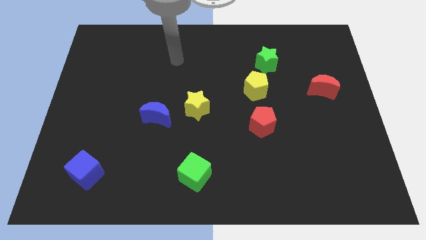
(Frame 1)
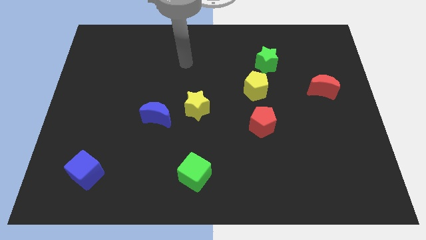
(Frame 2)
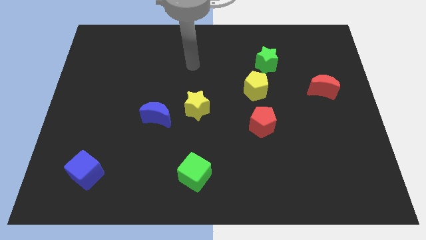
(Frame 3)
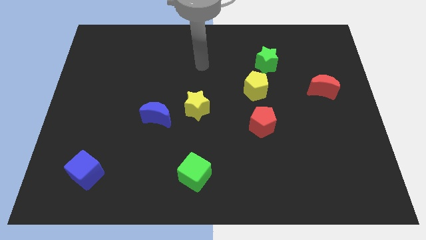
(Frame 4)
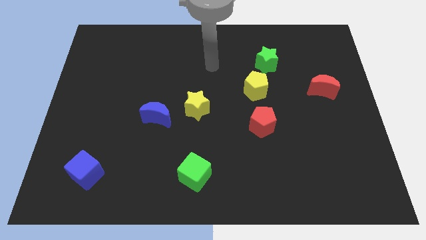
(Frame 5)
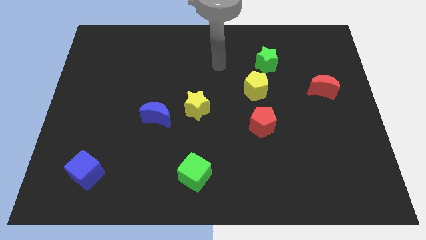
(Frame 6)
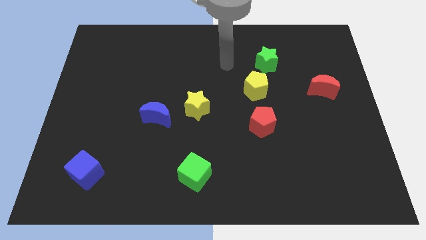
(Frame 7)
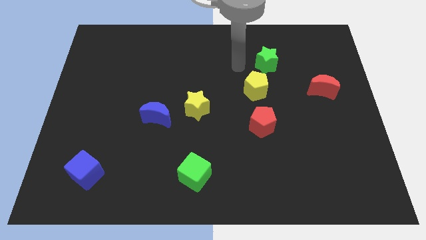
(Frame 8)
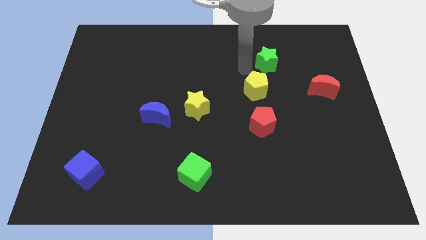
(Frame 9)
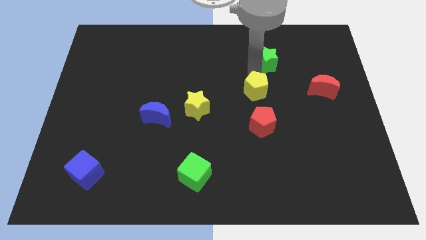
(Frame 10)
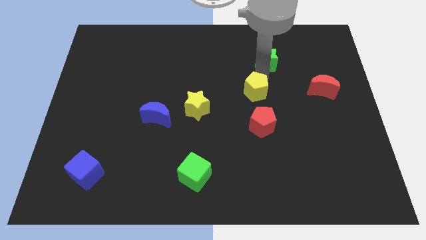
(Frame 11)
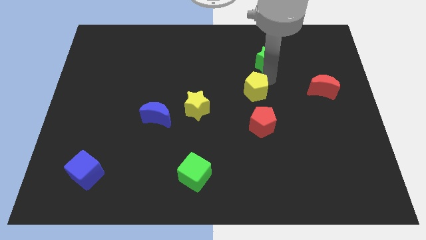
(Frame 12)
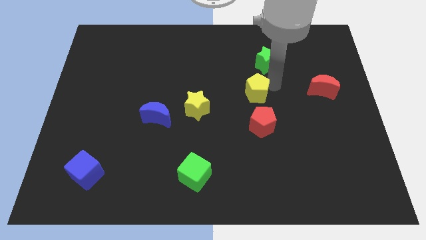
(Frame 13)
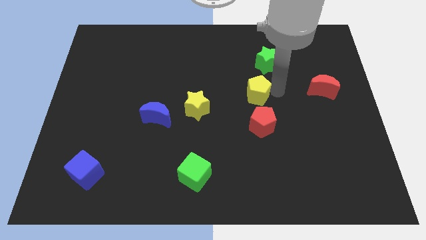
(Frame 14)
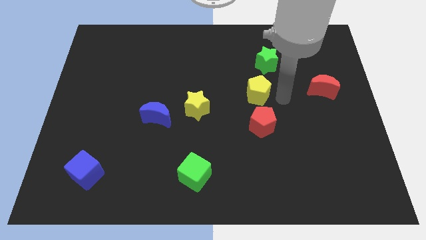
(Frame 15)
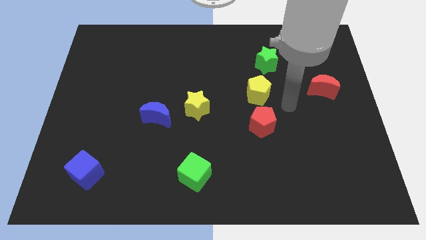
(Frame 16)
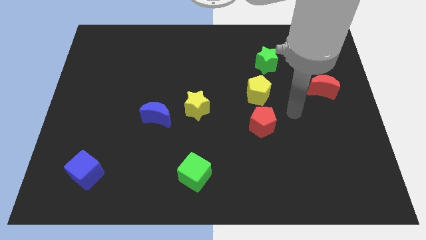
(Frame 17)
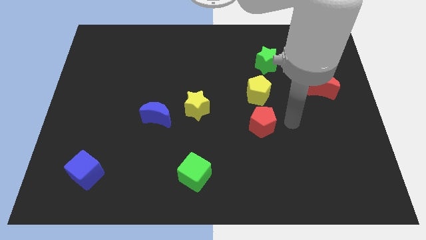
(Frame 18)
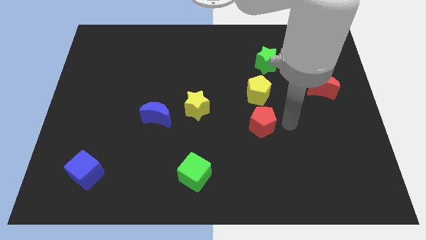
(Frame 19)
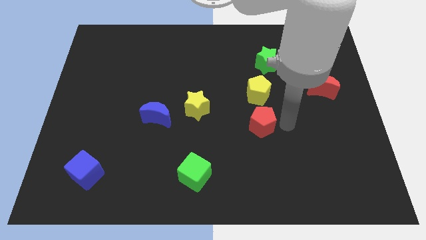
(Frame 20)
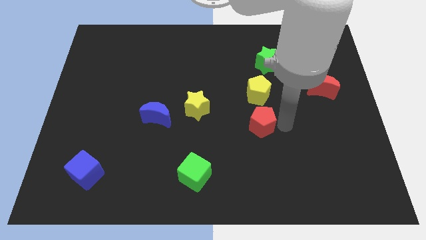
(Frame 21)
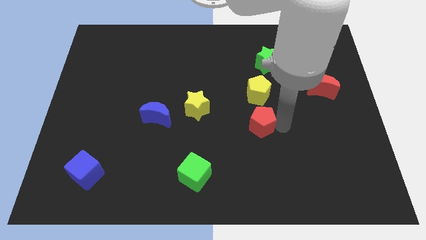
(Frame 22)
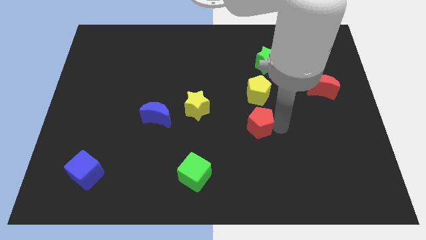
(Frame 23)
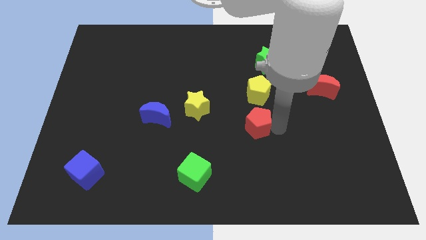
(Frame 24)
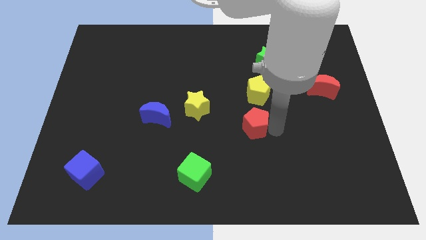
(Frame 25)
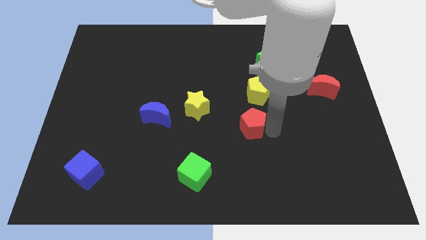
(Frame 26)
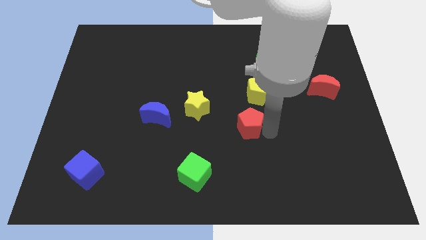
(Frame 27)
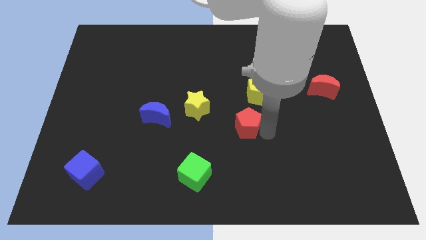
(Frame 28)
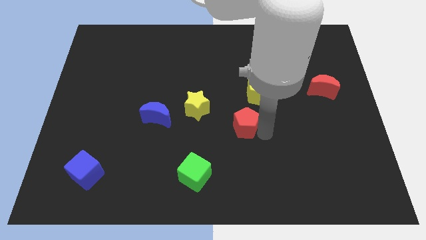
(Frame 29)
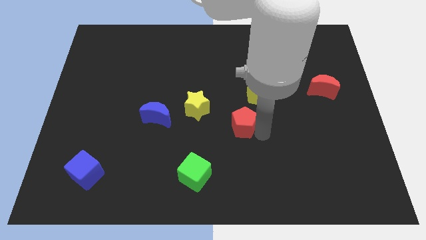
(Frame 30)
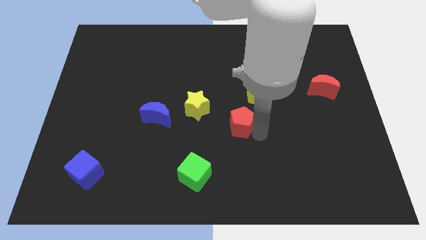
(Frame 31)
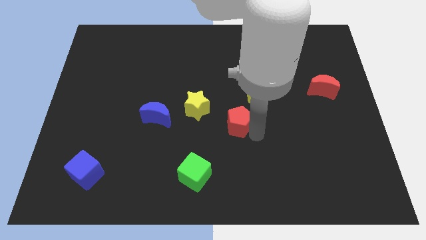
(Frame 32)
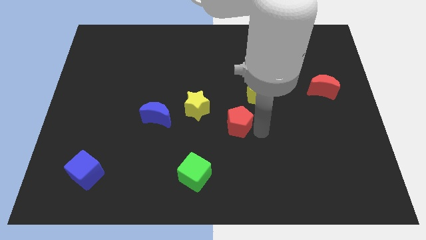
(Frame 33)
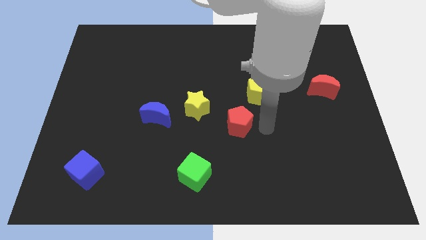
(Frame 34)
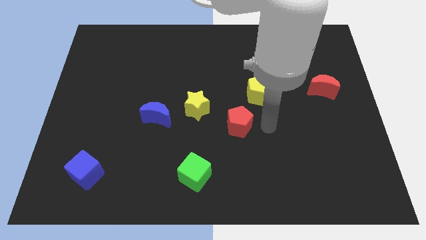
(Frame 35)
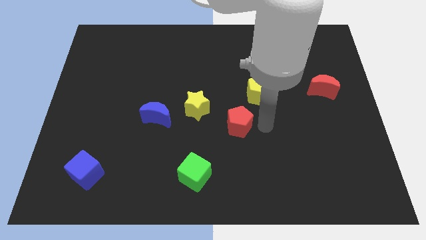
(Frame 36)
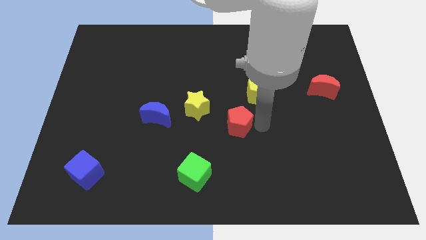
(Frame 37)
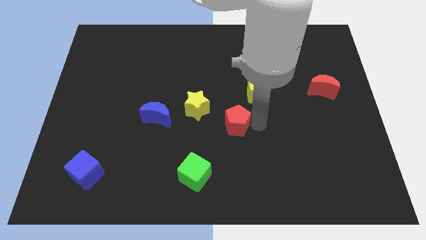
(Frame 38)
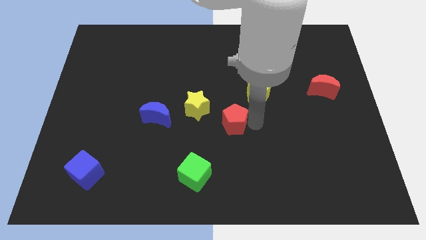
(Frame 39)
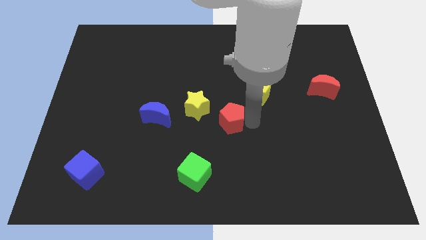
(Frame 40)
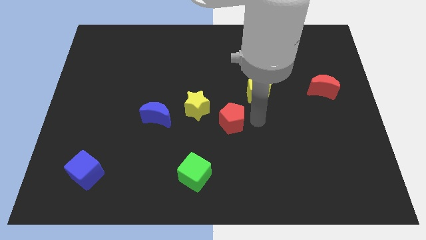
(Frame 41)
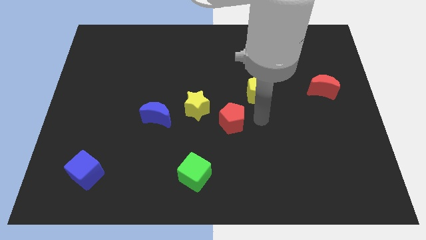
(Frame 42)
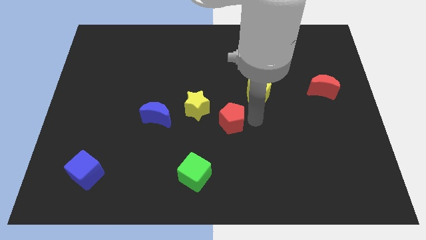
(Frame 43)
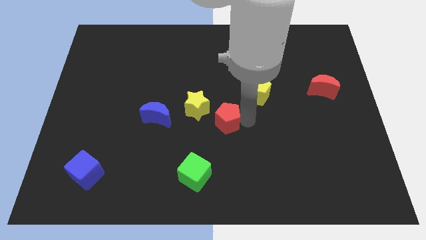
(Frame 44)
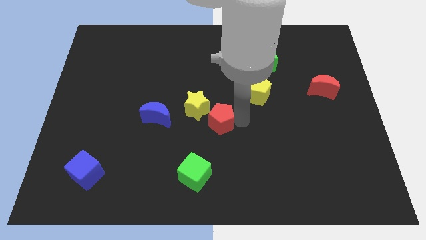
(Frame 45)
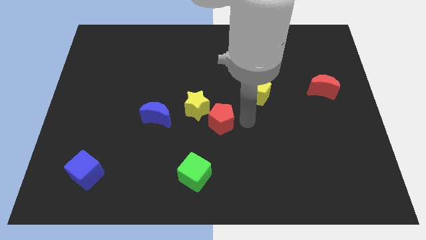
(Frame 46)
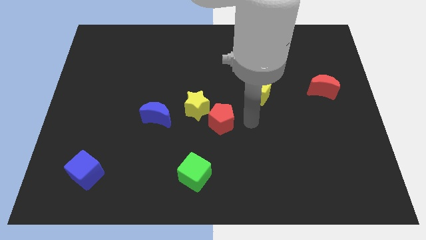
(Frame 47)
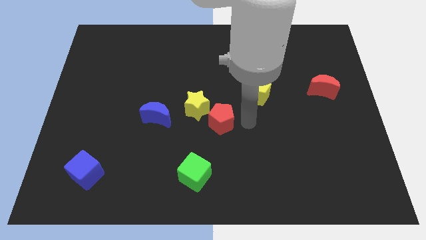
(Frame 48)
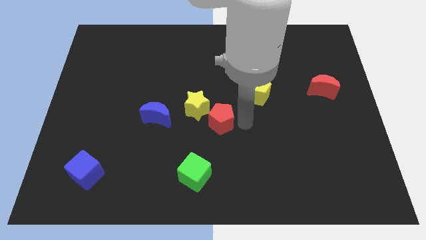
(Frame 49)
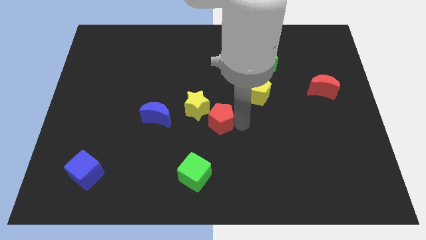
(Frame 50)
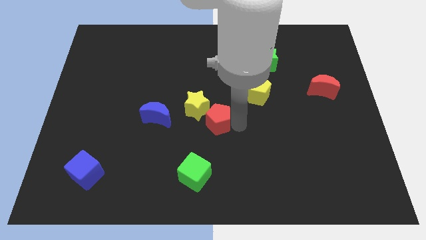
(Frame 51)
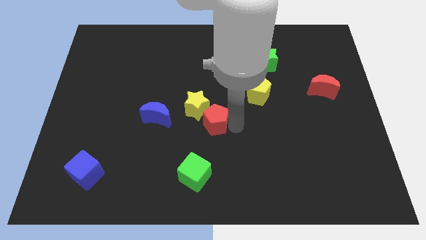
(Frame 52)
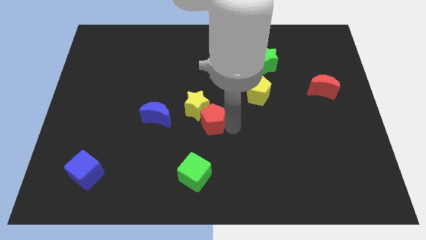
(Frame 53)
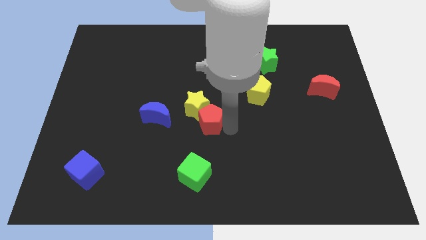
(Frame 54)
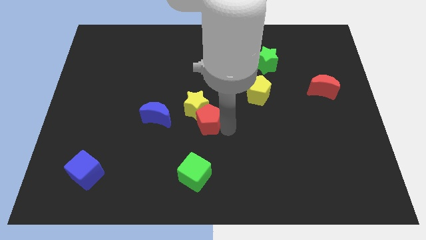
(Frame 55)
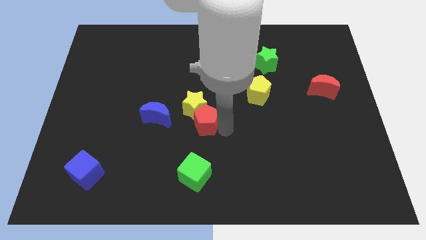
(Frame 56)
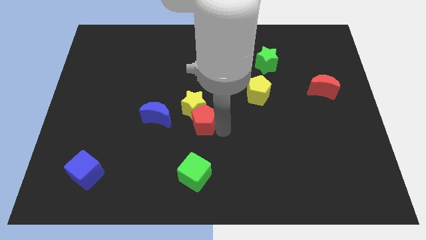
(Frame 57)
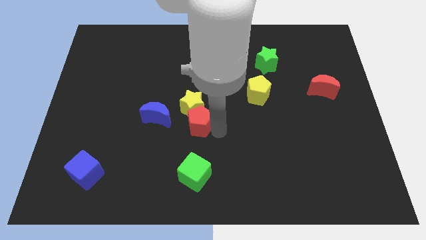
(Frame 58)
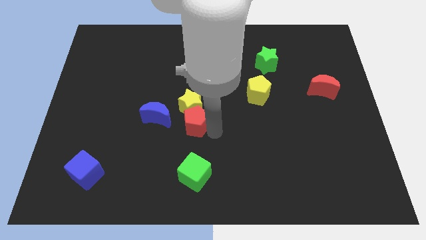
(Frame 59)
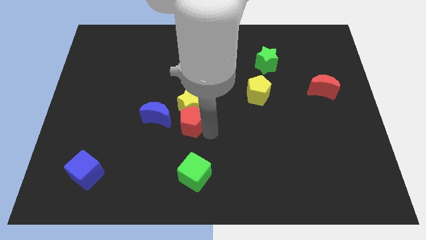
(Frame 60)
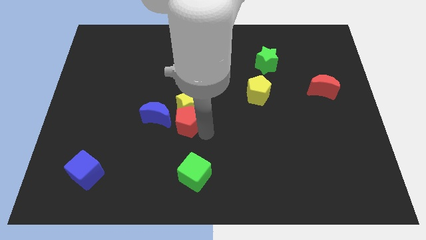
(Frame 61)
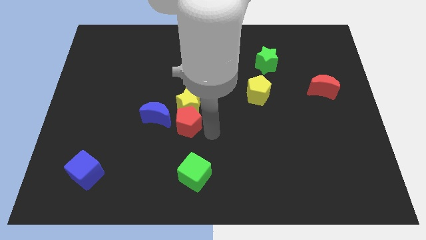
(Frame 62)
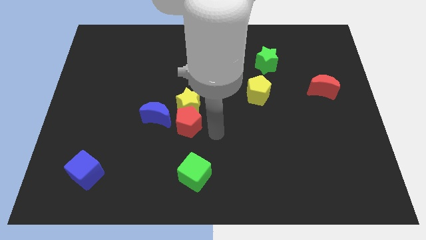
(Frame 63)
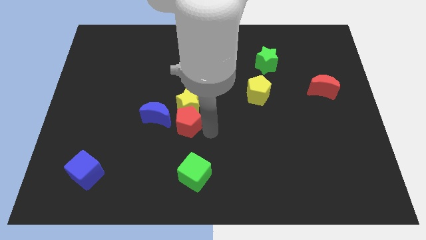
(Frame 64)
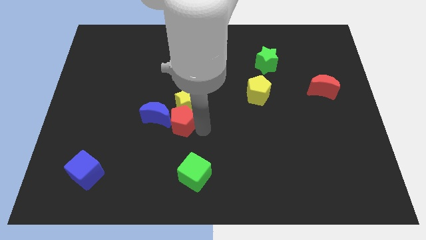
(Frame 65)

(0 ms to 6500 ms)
slide the red pentagon close to the blue moon
